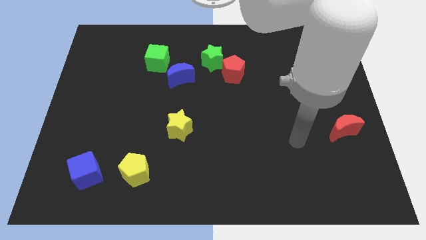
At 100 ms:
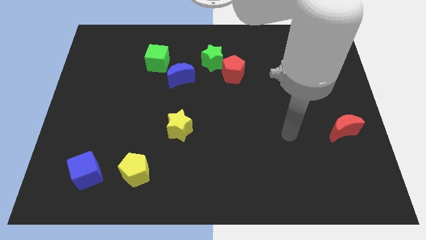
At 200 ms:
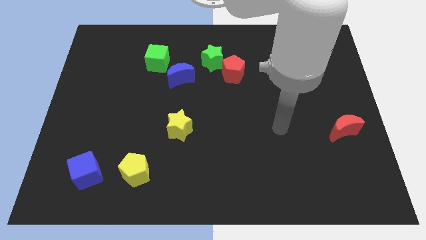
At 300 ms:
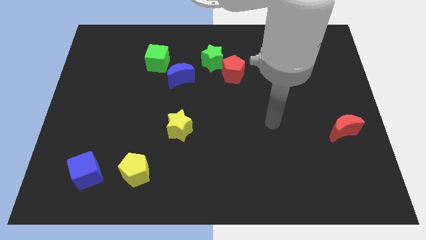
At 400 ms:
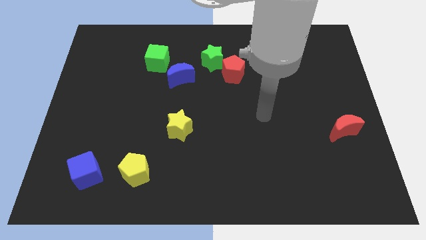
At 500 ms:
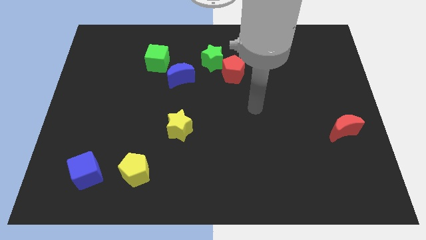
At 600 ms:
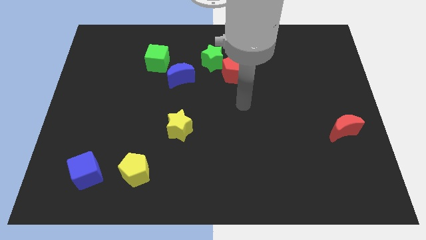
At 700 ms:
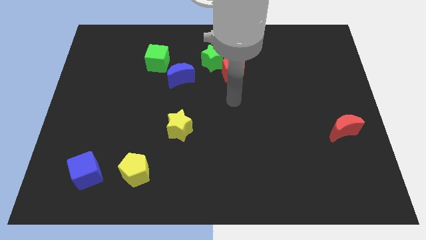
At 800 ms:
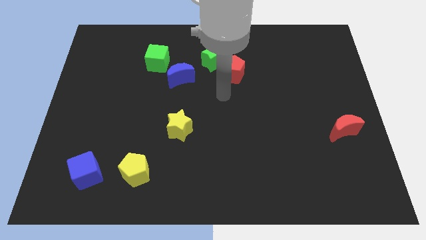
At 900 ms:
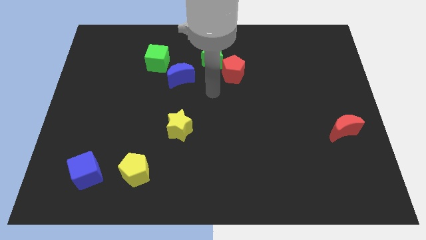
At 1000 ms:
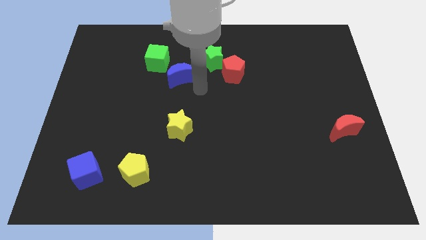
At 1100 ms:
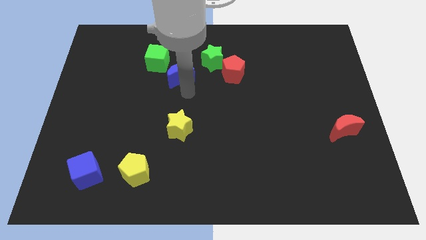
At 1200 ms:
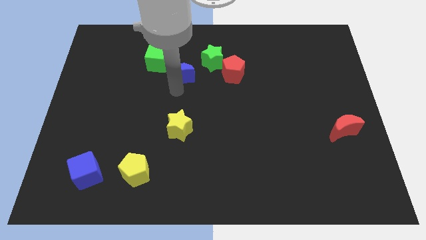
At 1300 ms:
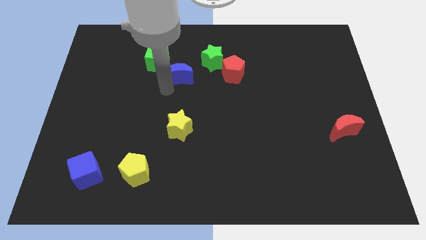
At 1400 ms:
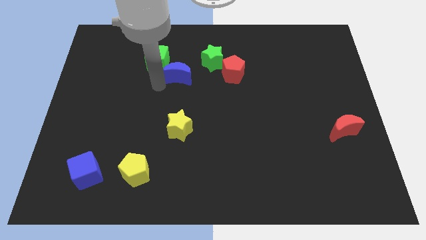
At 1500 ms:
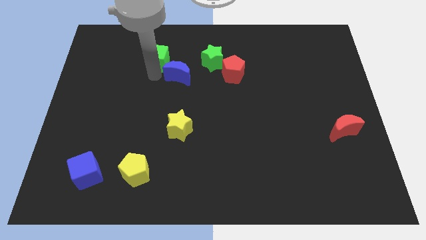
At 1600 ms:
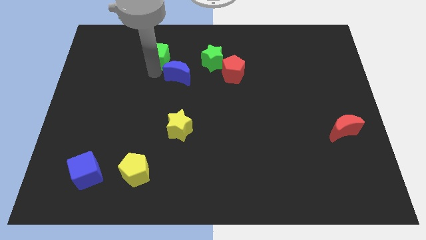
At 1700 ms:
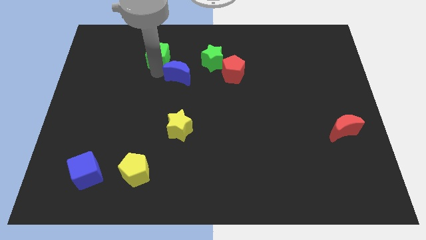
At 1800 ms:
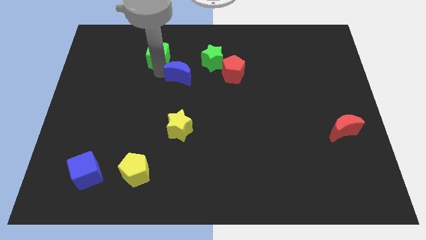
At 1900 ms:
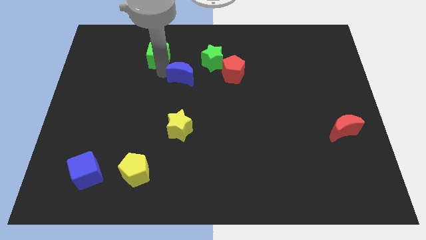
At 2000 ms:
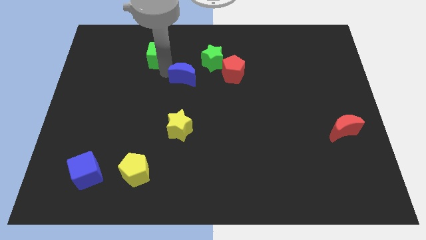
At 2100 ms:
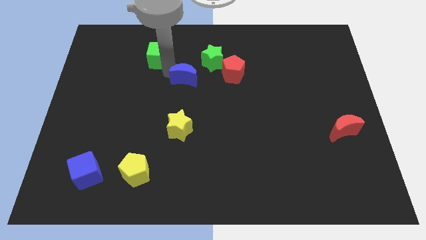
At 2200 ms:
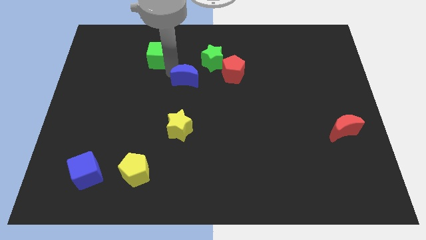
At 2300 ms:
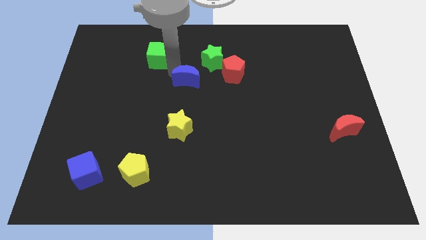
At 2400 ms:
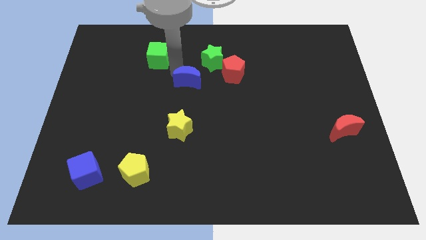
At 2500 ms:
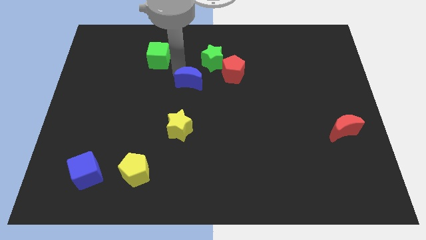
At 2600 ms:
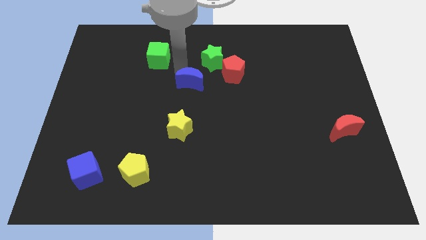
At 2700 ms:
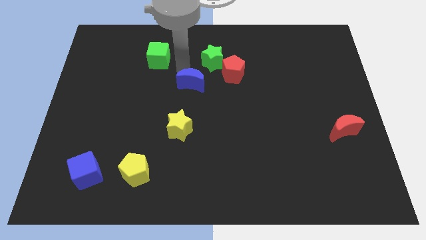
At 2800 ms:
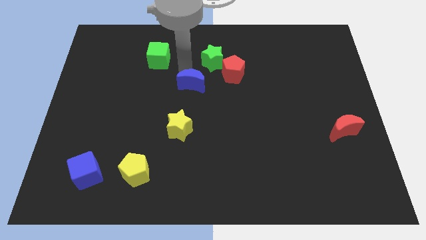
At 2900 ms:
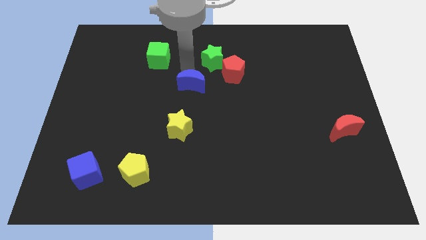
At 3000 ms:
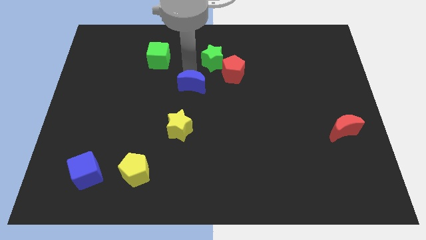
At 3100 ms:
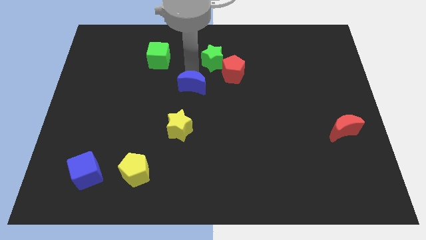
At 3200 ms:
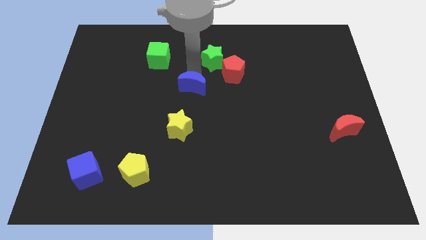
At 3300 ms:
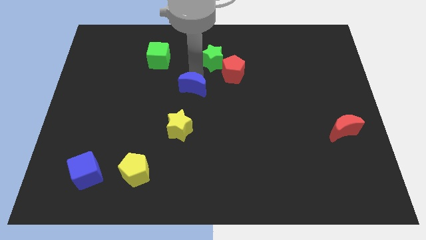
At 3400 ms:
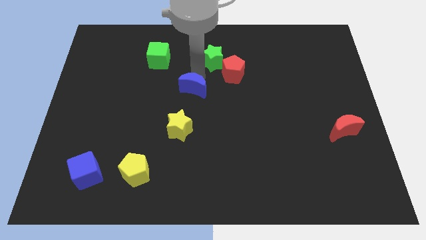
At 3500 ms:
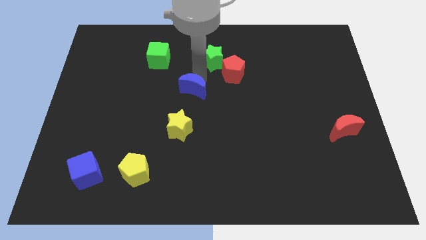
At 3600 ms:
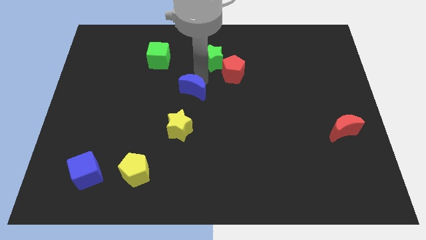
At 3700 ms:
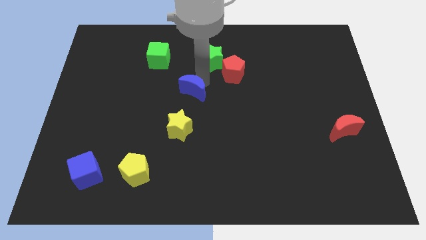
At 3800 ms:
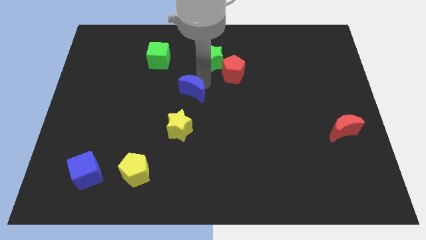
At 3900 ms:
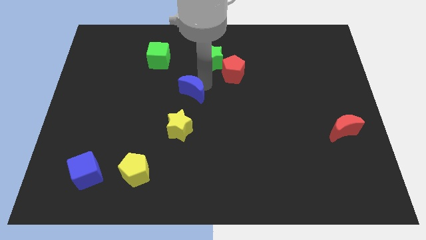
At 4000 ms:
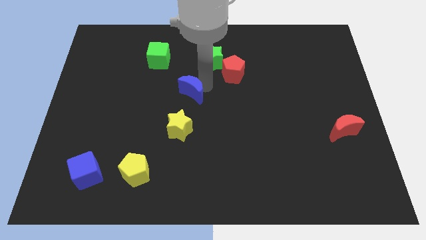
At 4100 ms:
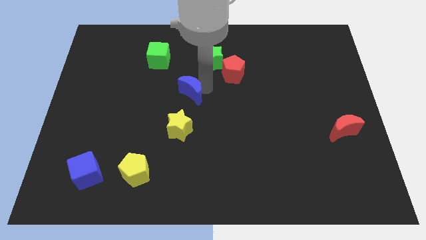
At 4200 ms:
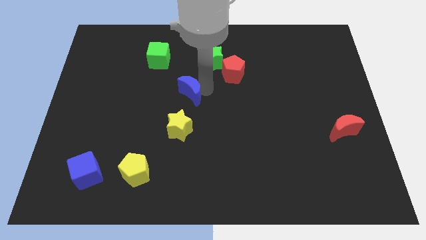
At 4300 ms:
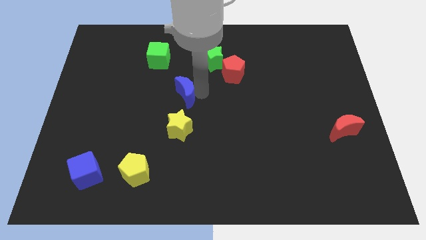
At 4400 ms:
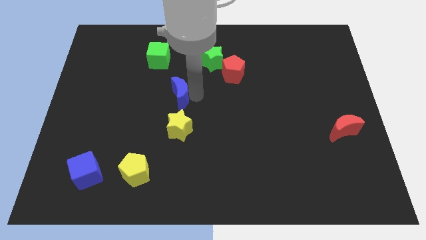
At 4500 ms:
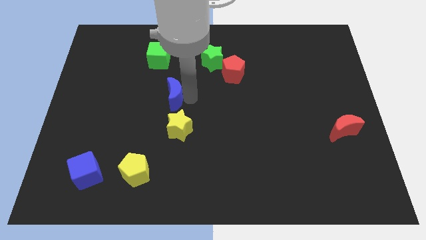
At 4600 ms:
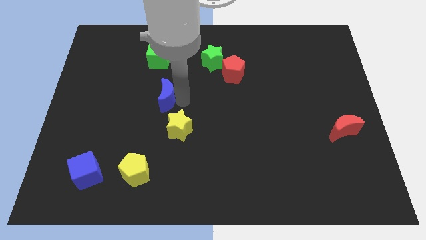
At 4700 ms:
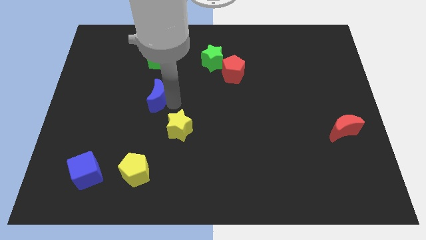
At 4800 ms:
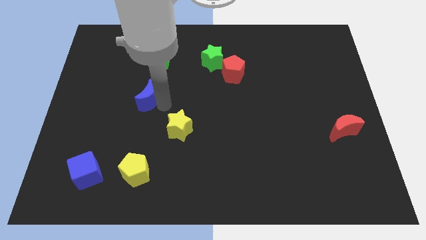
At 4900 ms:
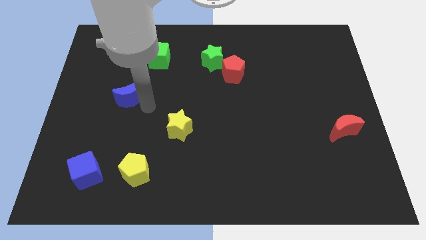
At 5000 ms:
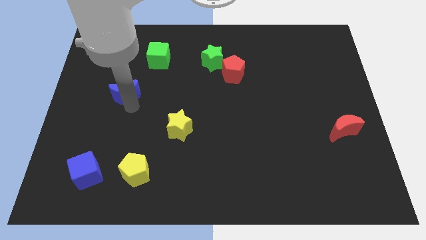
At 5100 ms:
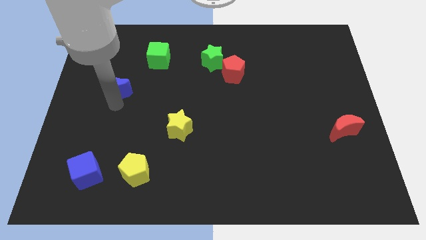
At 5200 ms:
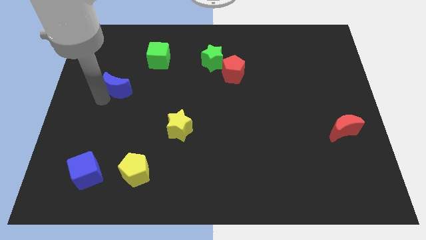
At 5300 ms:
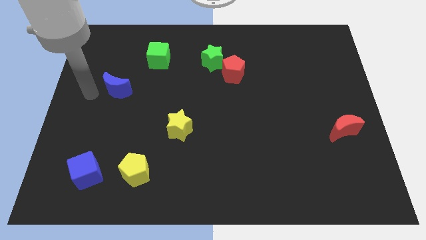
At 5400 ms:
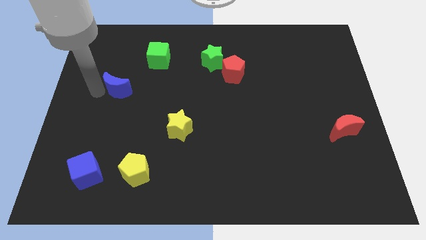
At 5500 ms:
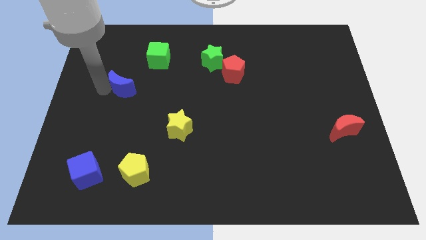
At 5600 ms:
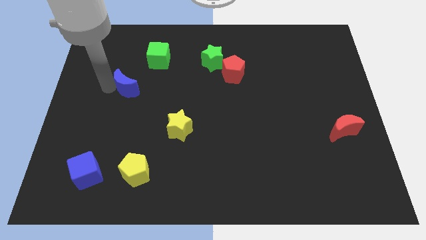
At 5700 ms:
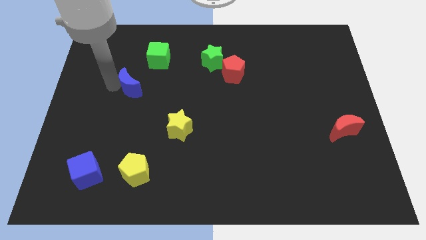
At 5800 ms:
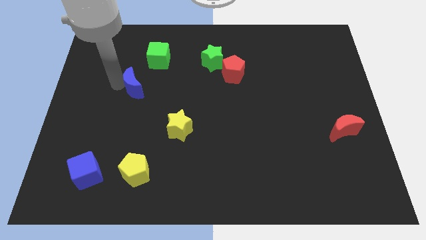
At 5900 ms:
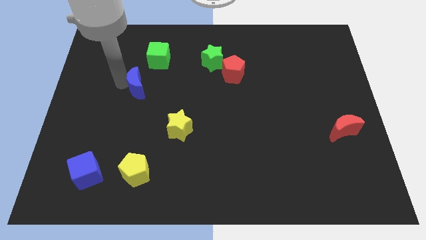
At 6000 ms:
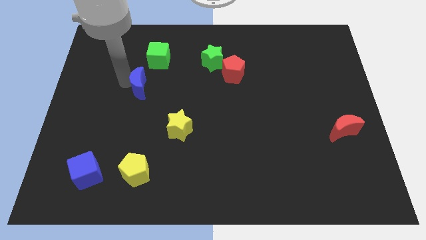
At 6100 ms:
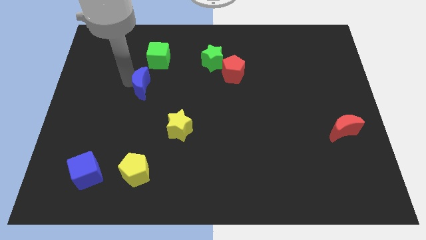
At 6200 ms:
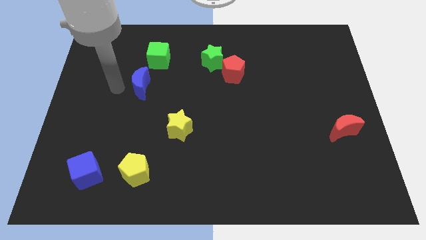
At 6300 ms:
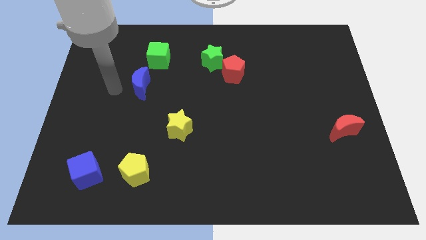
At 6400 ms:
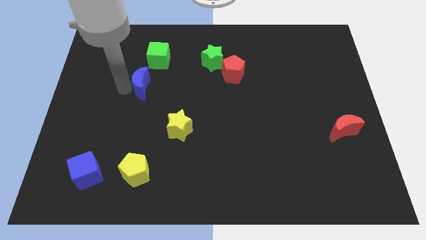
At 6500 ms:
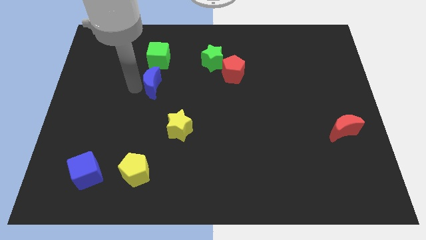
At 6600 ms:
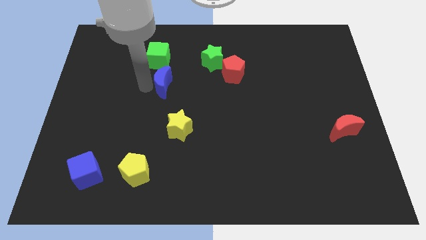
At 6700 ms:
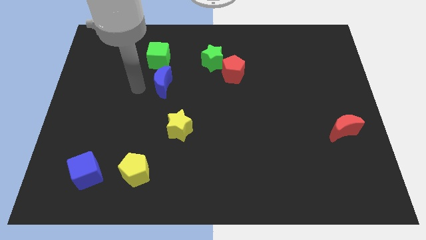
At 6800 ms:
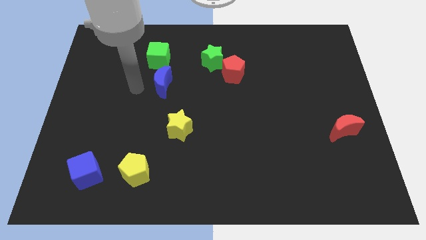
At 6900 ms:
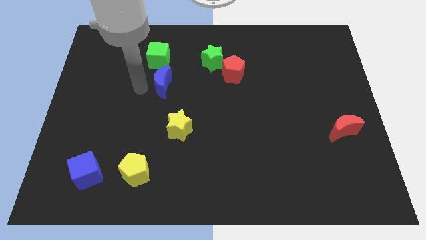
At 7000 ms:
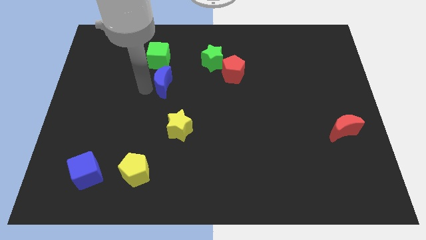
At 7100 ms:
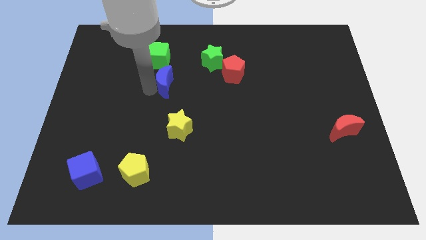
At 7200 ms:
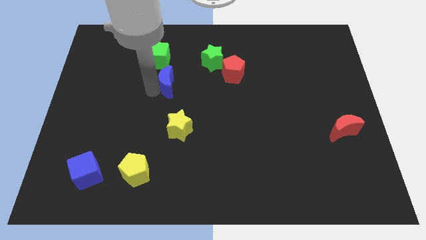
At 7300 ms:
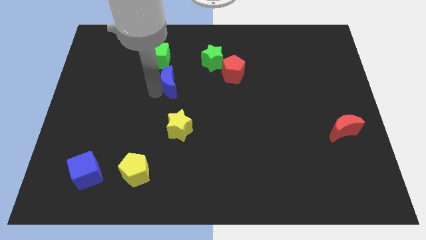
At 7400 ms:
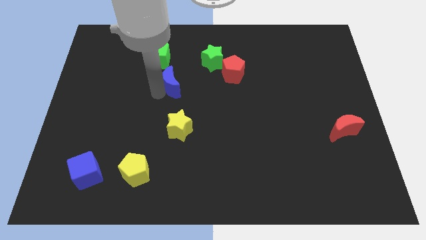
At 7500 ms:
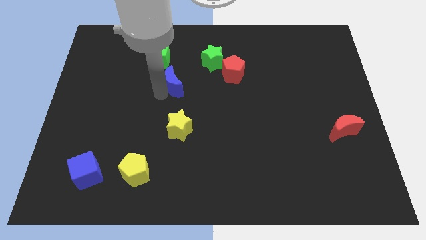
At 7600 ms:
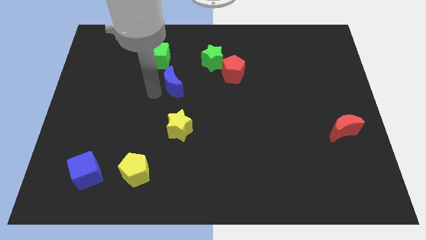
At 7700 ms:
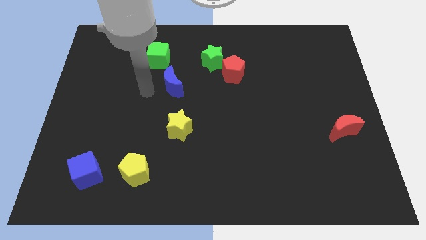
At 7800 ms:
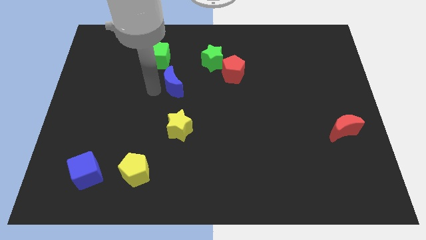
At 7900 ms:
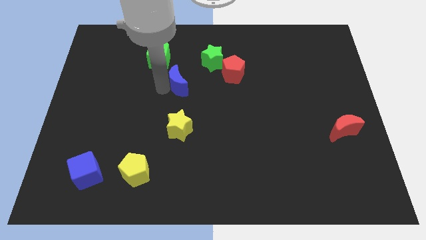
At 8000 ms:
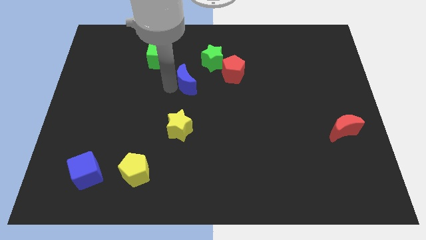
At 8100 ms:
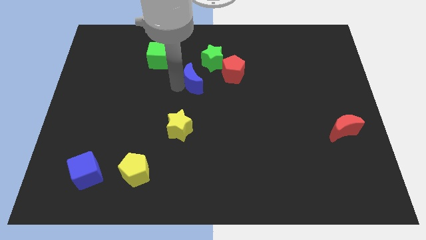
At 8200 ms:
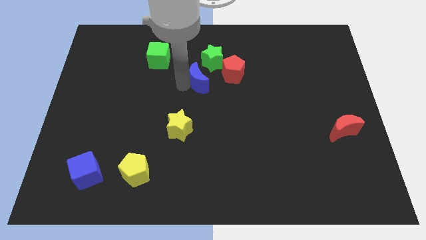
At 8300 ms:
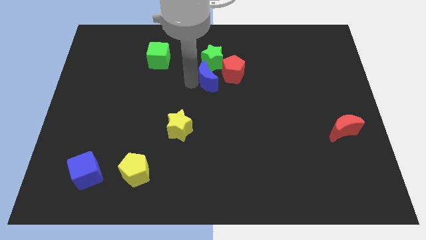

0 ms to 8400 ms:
slightly slide the blue moon to the right

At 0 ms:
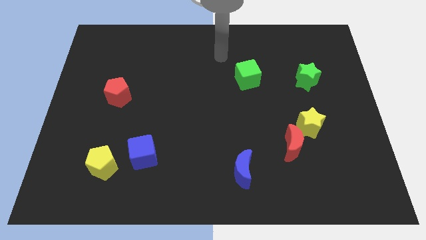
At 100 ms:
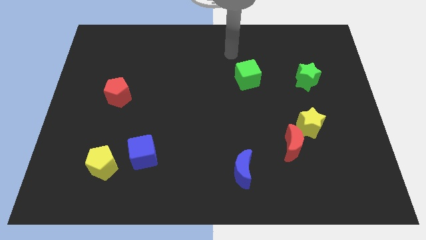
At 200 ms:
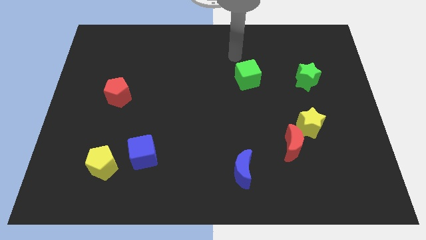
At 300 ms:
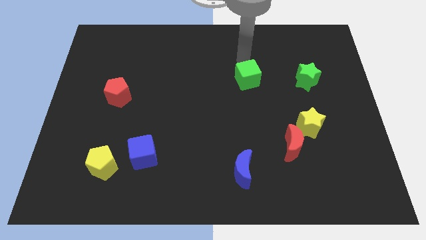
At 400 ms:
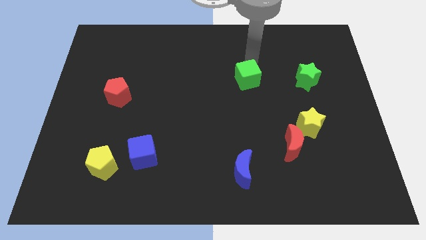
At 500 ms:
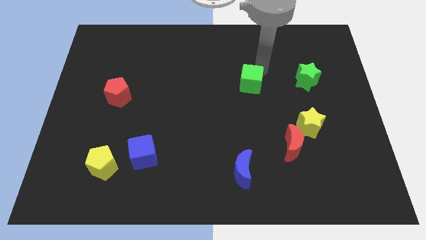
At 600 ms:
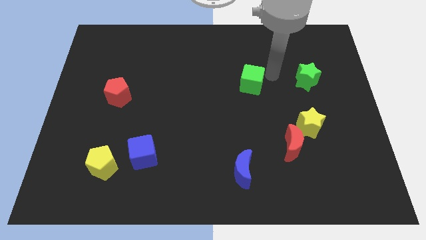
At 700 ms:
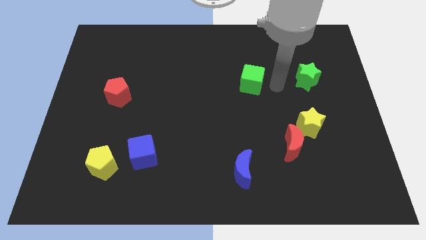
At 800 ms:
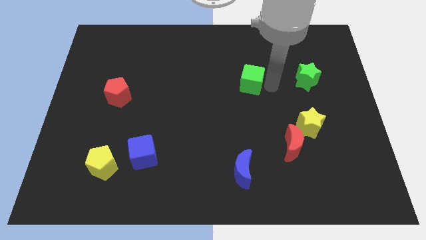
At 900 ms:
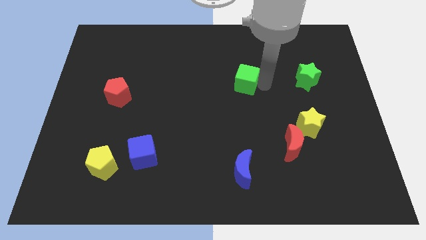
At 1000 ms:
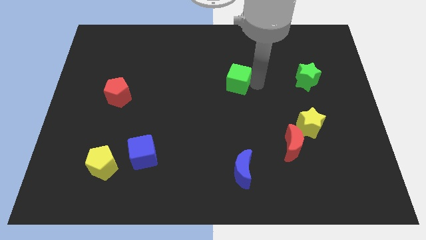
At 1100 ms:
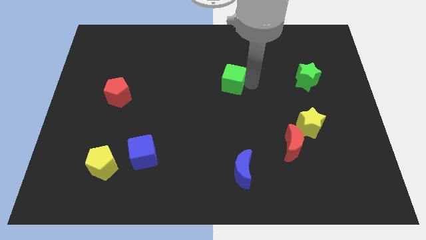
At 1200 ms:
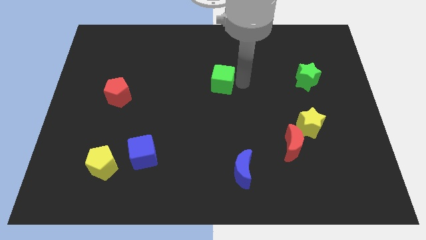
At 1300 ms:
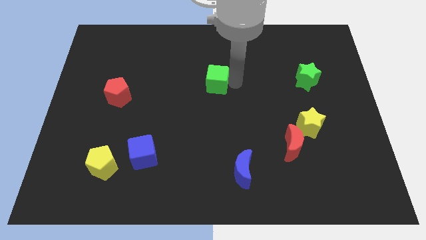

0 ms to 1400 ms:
move the green cube a little to the left
